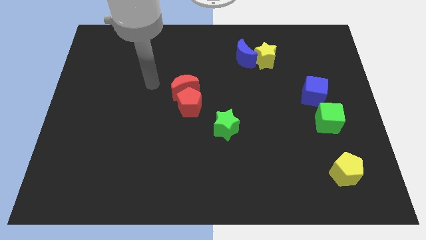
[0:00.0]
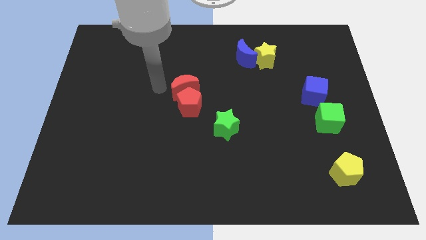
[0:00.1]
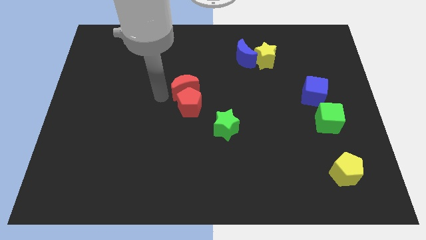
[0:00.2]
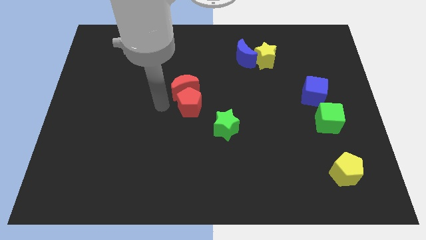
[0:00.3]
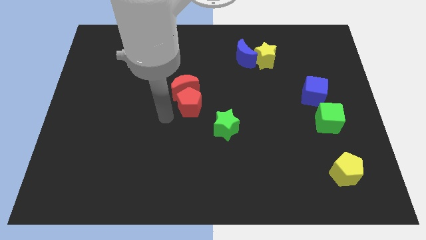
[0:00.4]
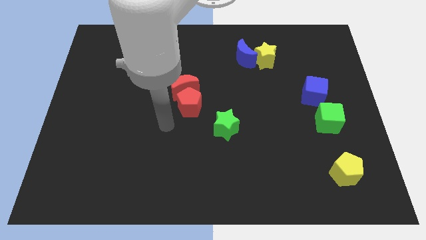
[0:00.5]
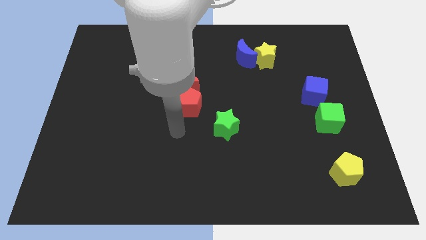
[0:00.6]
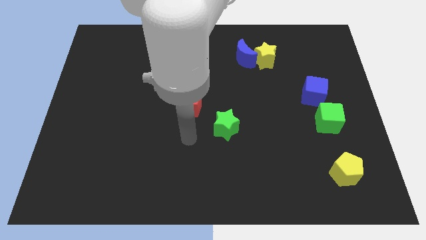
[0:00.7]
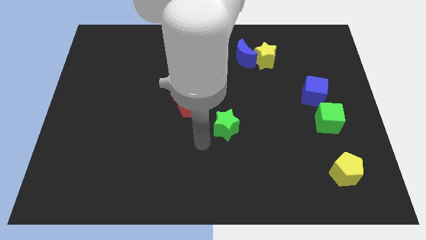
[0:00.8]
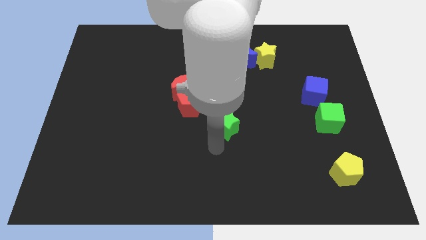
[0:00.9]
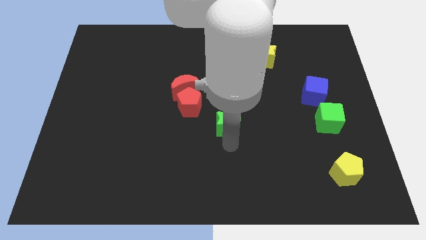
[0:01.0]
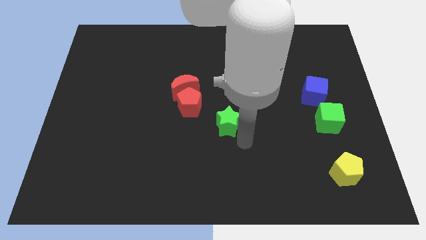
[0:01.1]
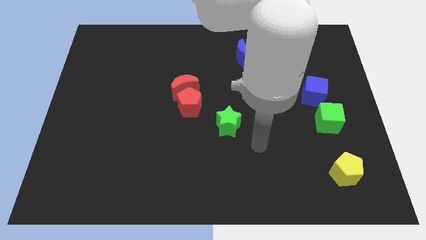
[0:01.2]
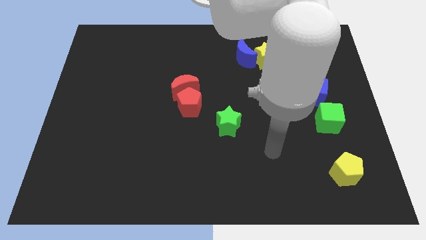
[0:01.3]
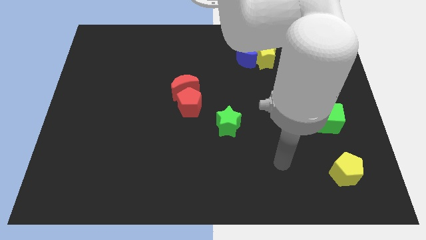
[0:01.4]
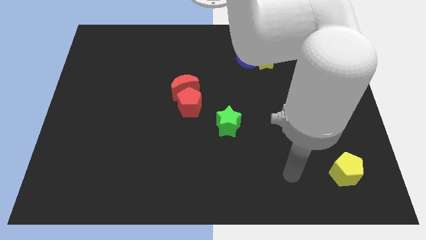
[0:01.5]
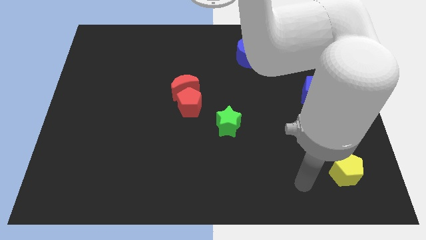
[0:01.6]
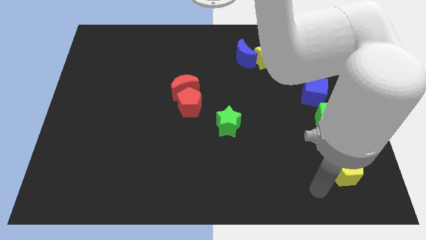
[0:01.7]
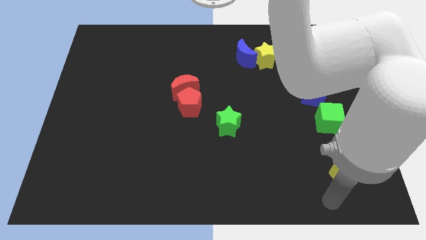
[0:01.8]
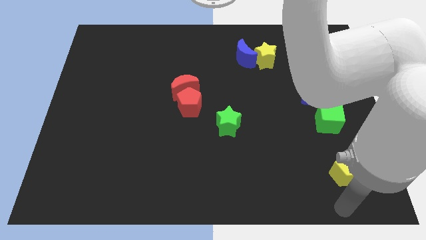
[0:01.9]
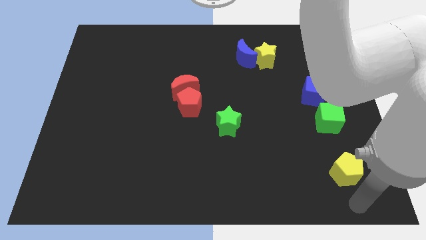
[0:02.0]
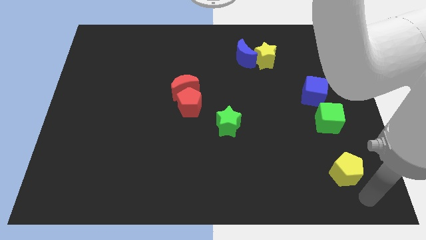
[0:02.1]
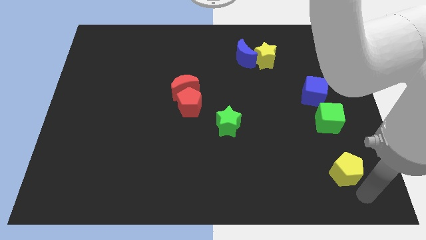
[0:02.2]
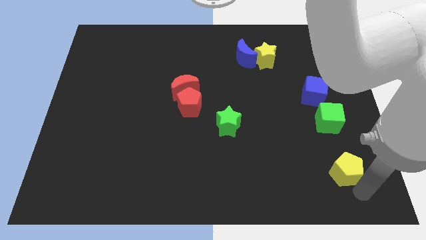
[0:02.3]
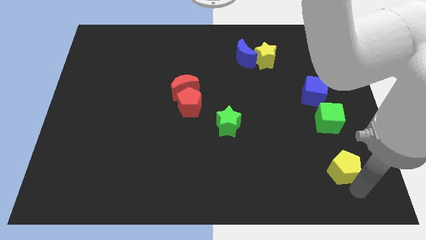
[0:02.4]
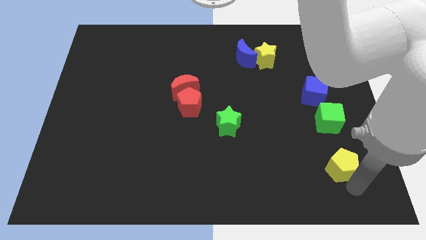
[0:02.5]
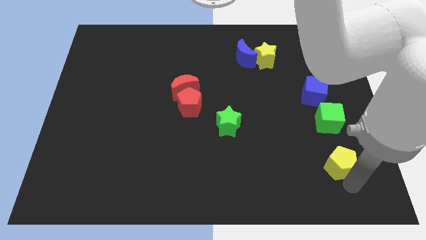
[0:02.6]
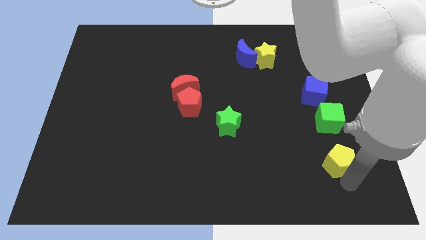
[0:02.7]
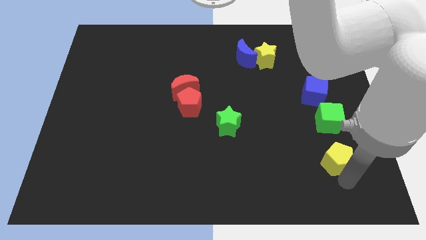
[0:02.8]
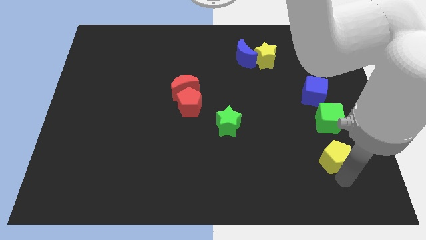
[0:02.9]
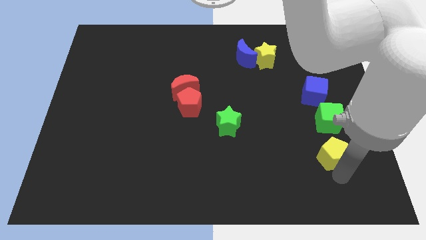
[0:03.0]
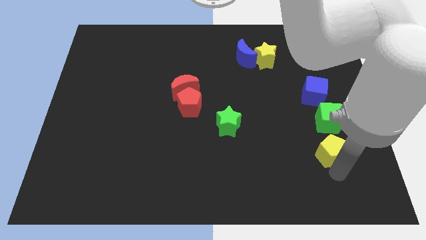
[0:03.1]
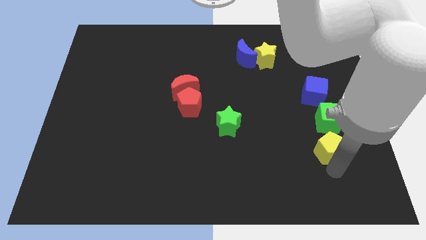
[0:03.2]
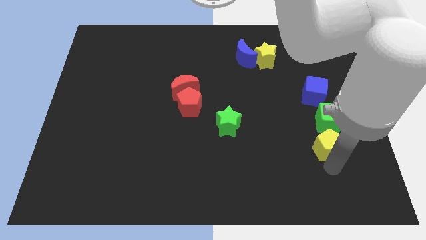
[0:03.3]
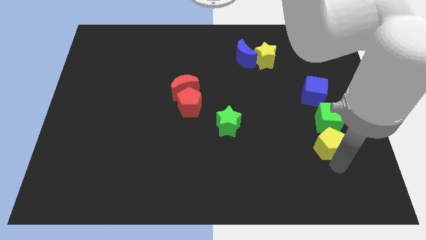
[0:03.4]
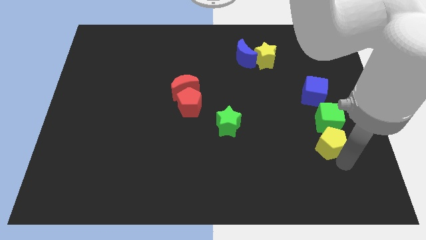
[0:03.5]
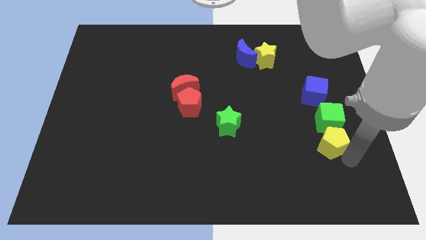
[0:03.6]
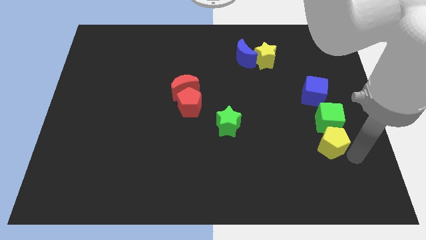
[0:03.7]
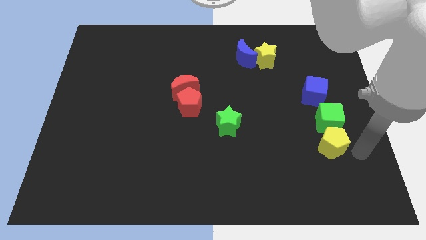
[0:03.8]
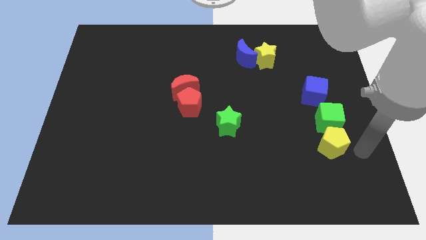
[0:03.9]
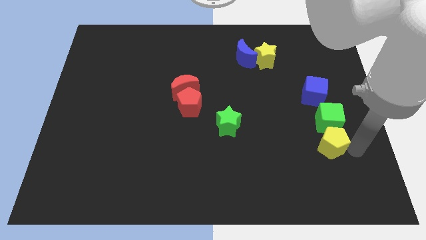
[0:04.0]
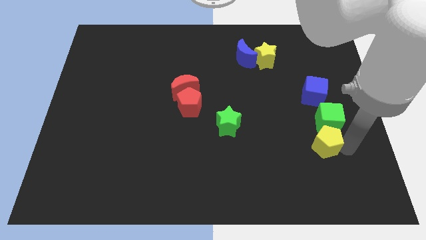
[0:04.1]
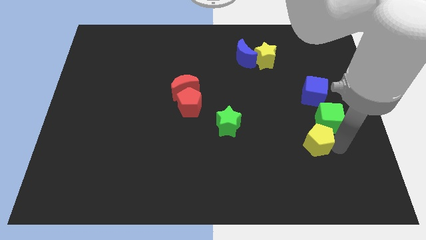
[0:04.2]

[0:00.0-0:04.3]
push the yellow pentagon upwards and to the left a bit

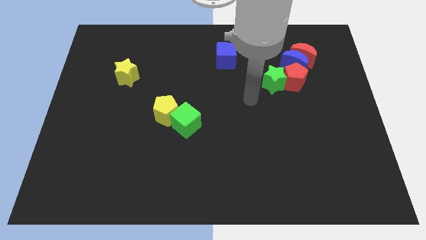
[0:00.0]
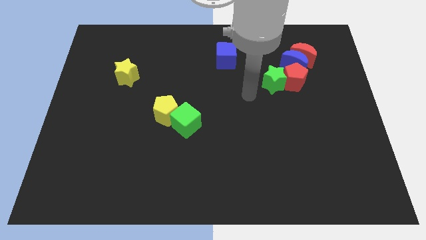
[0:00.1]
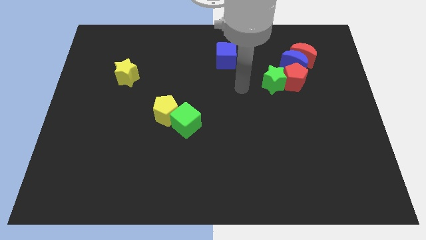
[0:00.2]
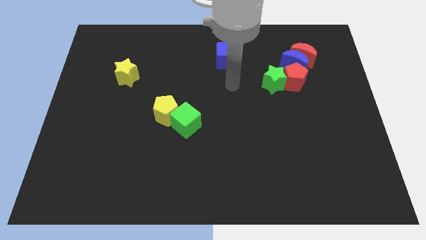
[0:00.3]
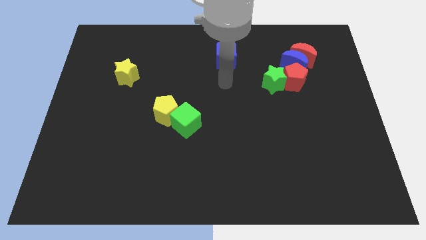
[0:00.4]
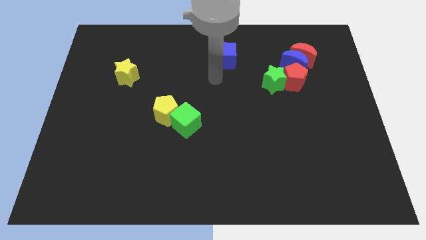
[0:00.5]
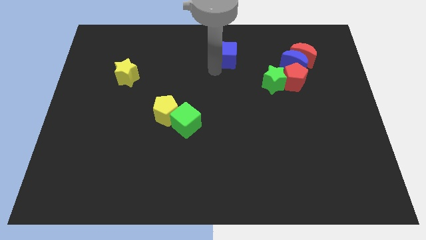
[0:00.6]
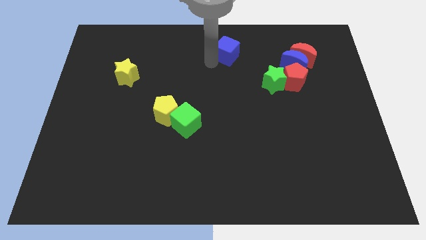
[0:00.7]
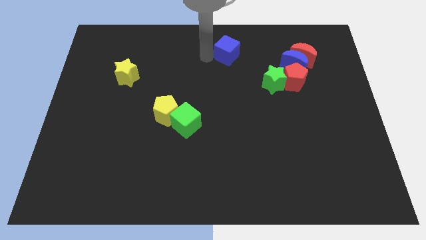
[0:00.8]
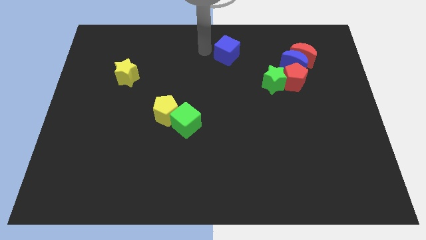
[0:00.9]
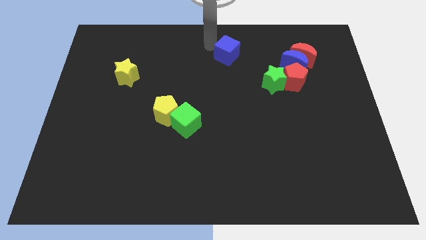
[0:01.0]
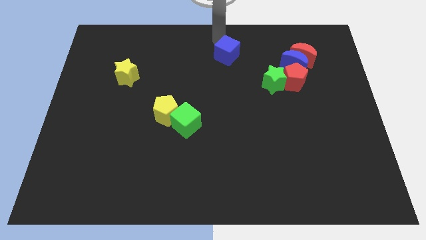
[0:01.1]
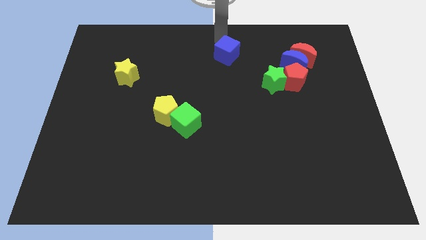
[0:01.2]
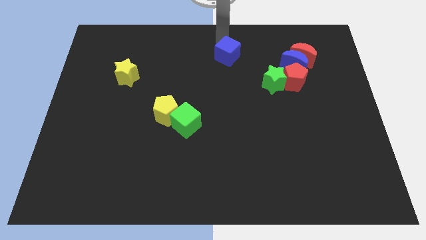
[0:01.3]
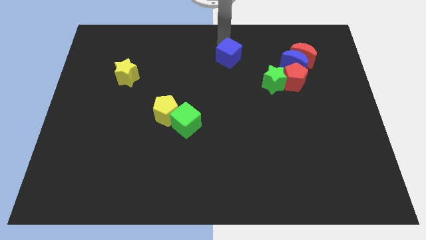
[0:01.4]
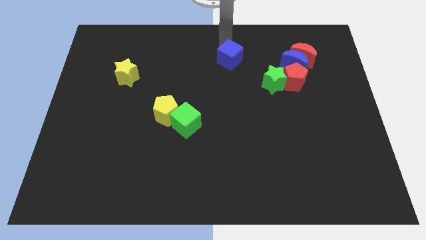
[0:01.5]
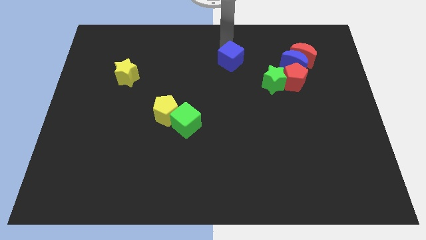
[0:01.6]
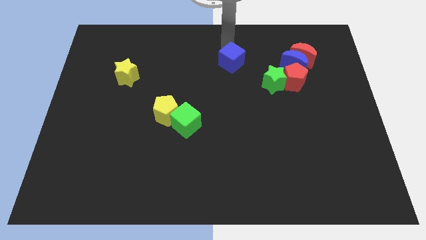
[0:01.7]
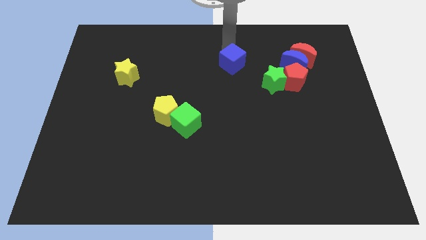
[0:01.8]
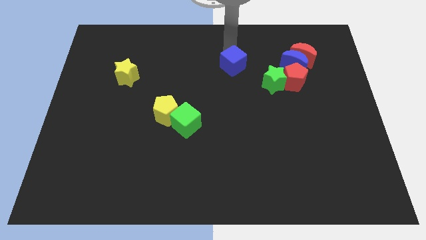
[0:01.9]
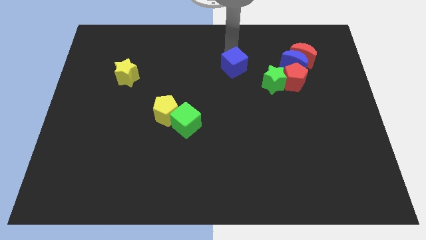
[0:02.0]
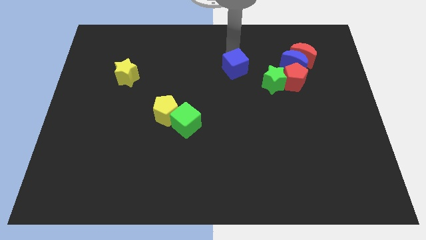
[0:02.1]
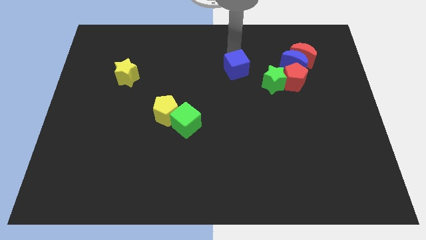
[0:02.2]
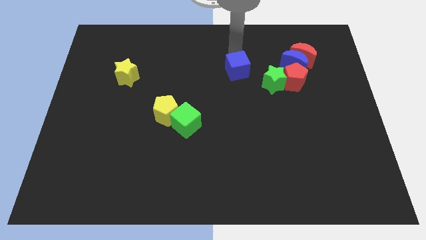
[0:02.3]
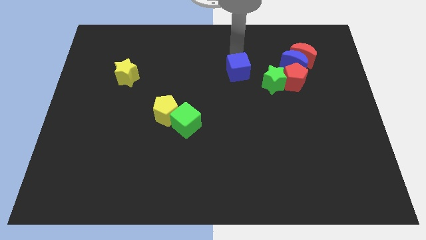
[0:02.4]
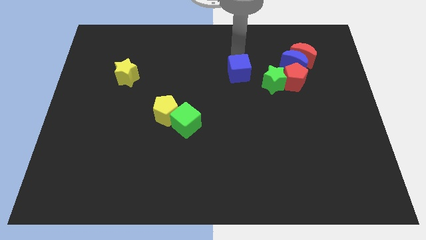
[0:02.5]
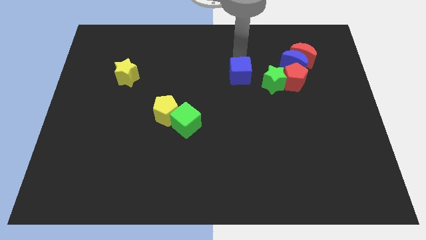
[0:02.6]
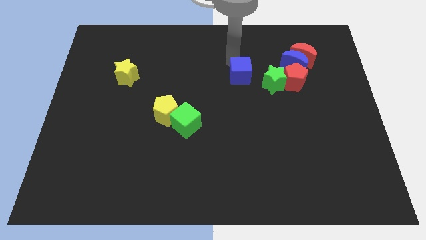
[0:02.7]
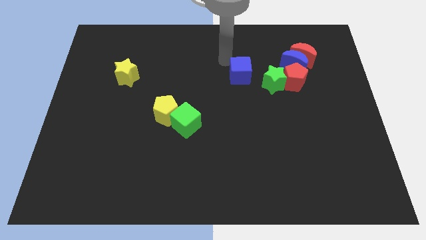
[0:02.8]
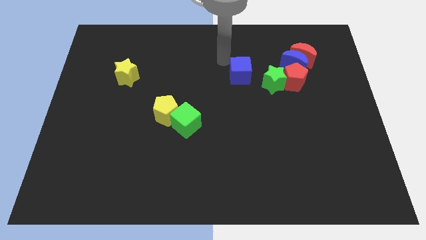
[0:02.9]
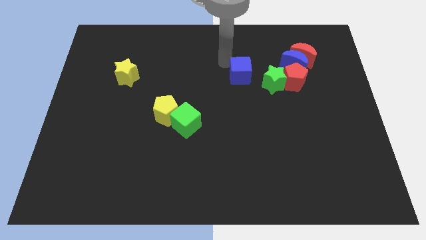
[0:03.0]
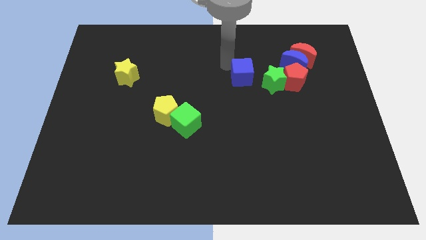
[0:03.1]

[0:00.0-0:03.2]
slightly push the blue cube downwards and then right

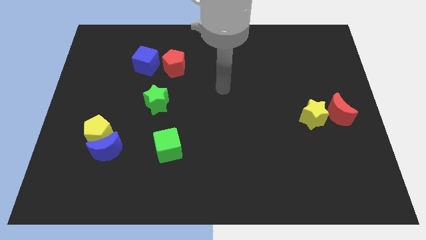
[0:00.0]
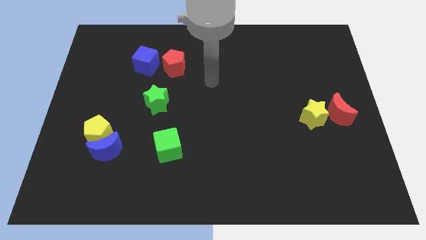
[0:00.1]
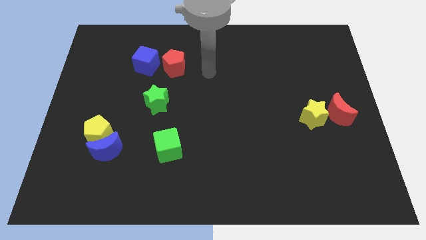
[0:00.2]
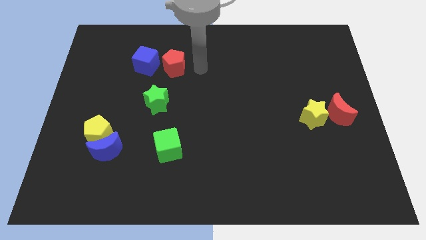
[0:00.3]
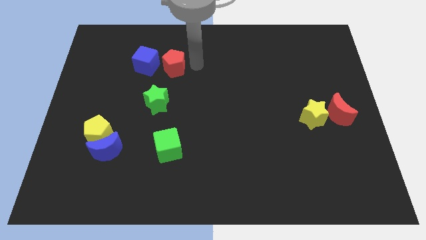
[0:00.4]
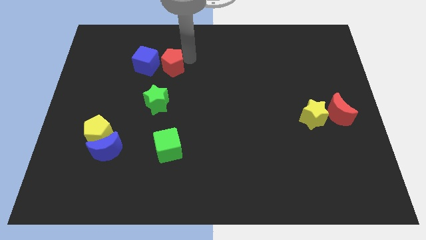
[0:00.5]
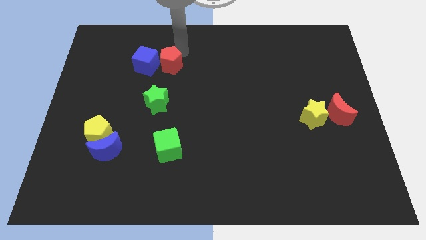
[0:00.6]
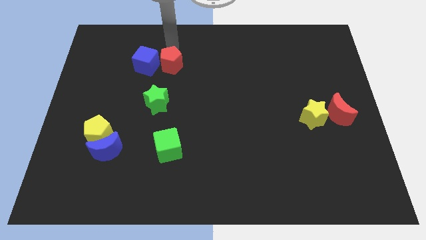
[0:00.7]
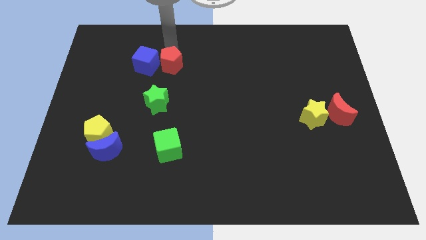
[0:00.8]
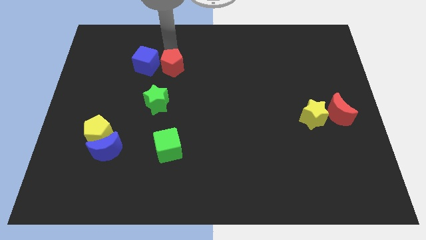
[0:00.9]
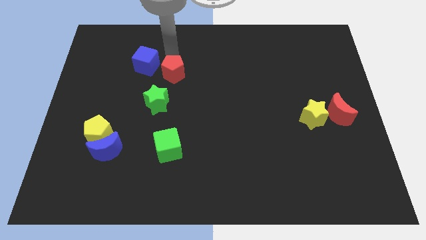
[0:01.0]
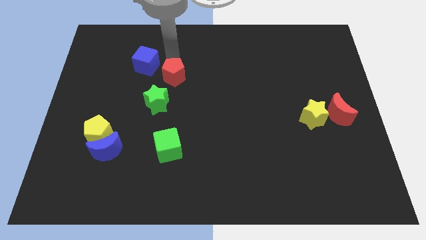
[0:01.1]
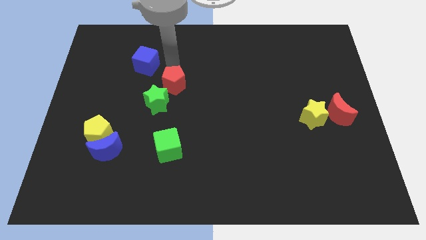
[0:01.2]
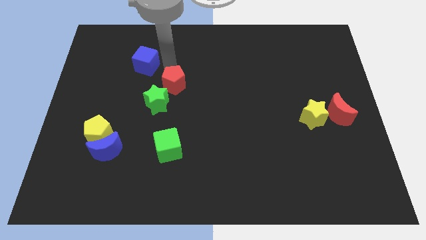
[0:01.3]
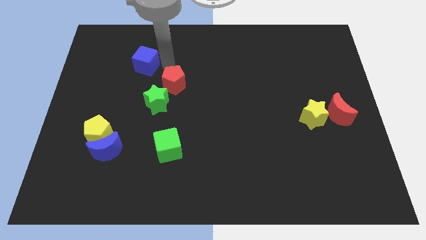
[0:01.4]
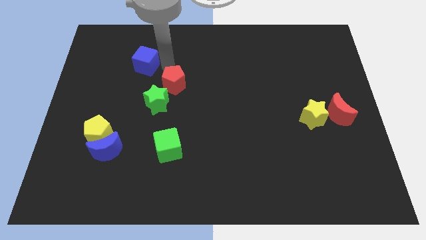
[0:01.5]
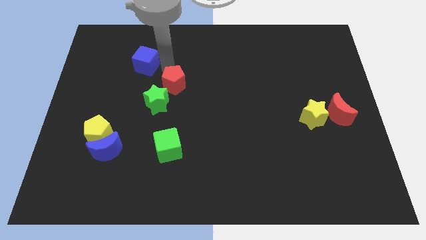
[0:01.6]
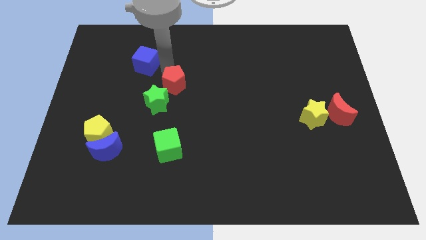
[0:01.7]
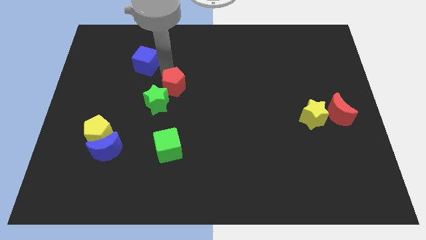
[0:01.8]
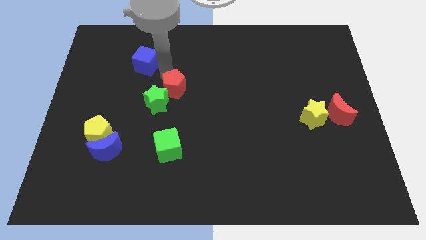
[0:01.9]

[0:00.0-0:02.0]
move the red pentagon down a little bit
